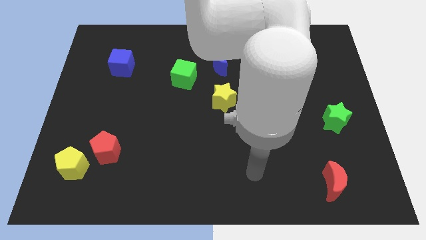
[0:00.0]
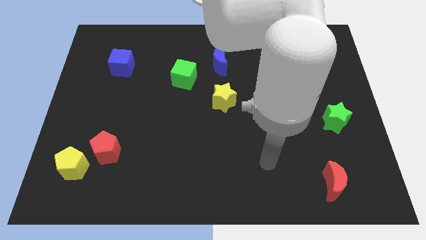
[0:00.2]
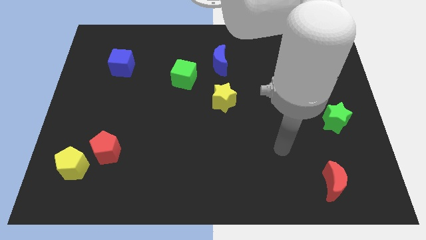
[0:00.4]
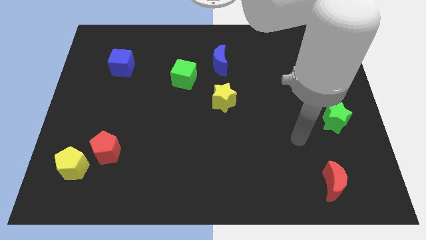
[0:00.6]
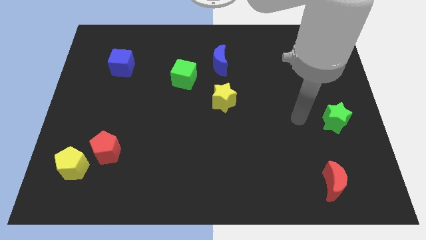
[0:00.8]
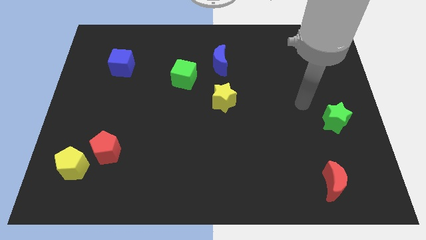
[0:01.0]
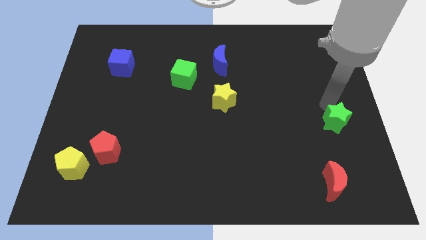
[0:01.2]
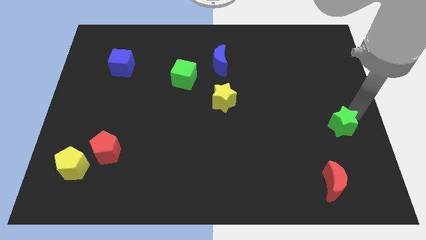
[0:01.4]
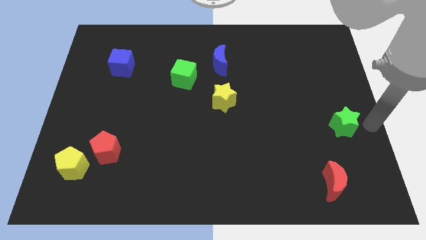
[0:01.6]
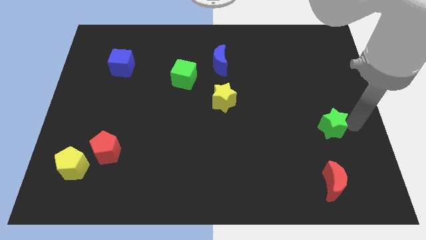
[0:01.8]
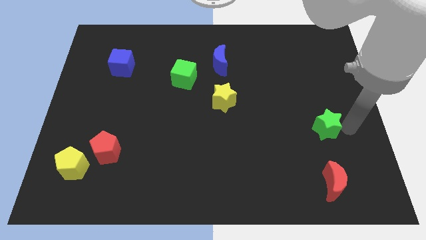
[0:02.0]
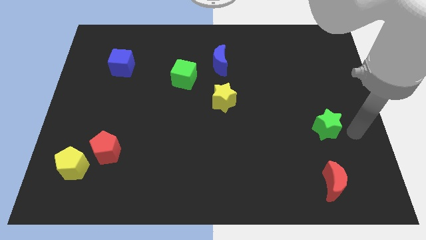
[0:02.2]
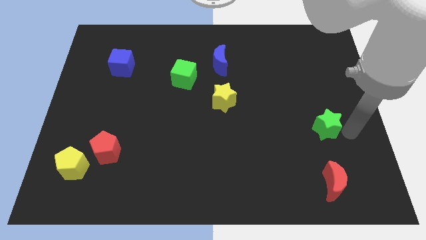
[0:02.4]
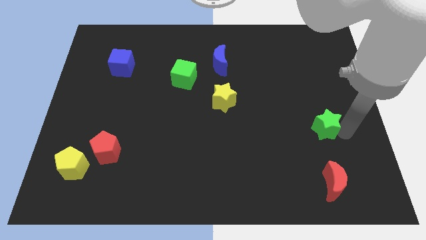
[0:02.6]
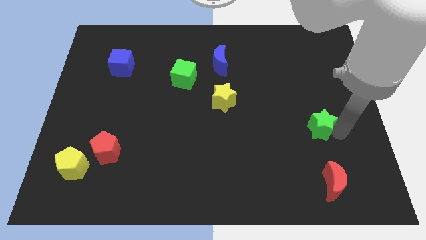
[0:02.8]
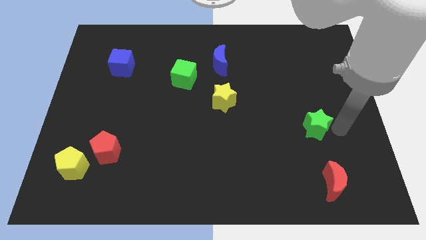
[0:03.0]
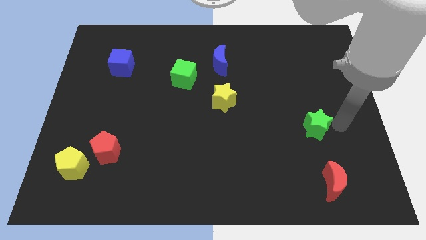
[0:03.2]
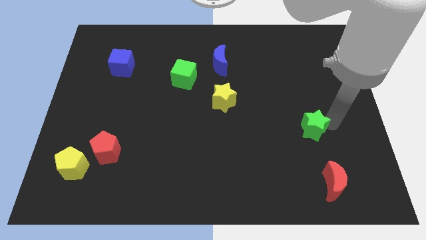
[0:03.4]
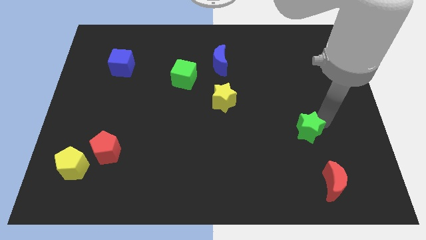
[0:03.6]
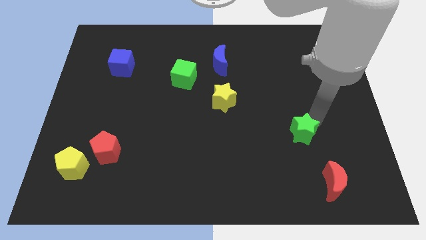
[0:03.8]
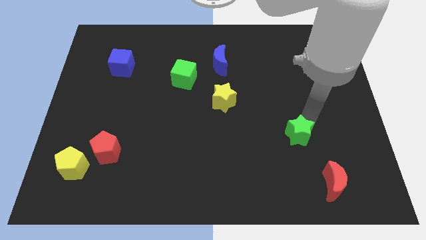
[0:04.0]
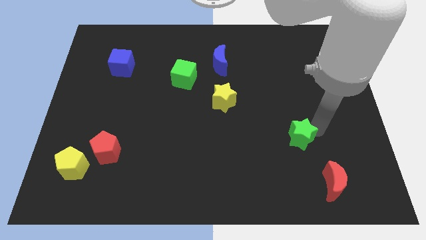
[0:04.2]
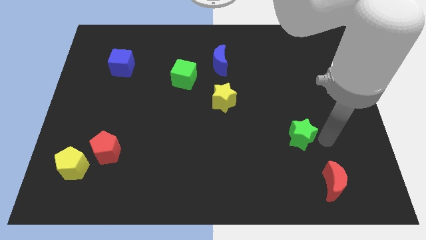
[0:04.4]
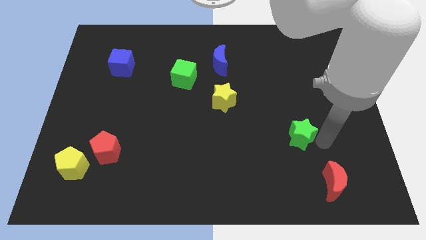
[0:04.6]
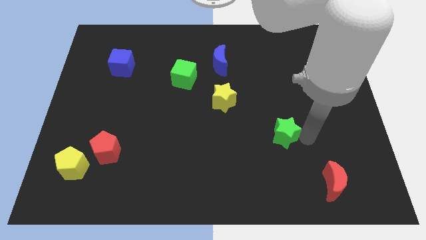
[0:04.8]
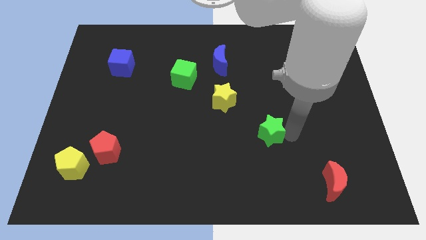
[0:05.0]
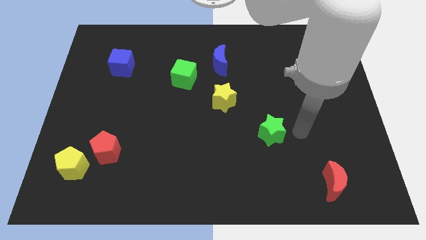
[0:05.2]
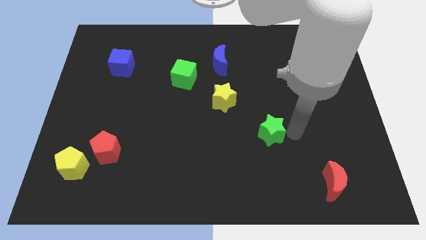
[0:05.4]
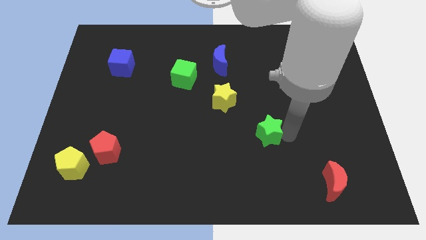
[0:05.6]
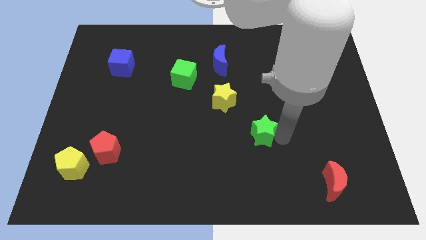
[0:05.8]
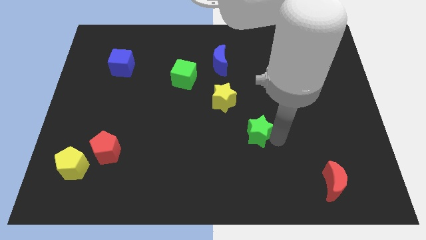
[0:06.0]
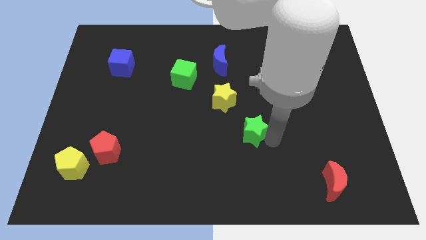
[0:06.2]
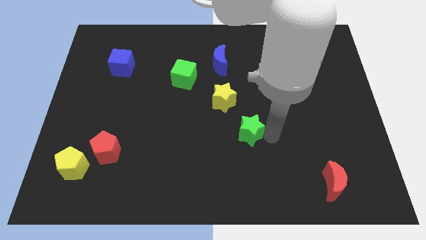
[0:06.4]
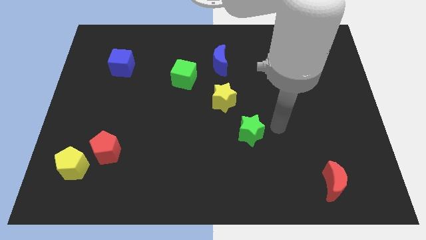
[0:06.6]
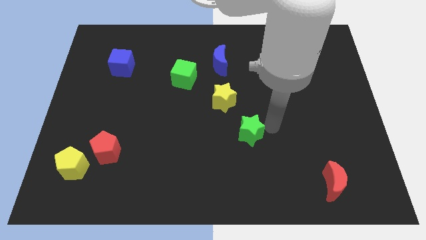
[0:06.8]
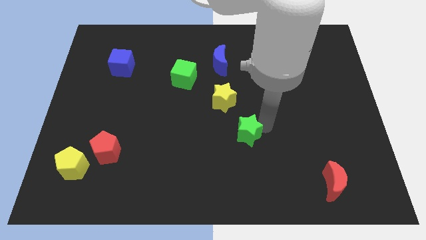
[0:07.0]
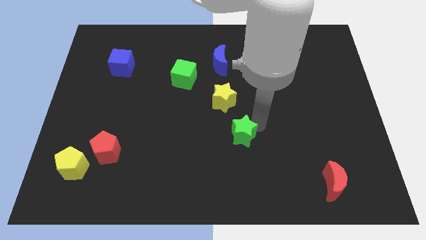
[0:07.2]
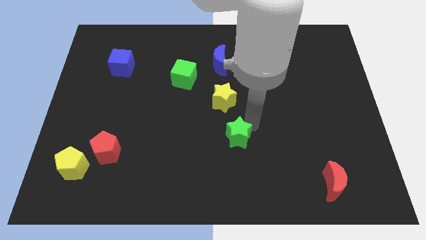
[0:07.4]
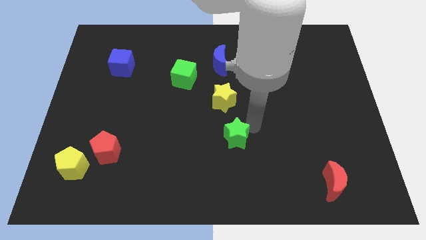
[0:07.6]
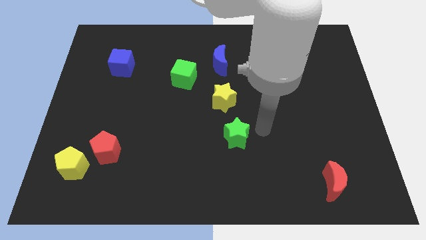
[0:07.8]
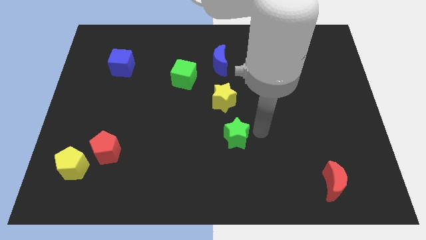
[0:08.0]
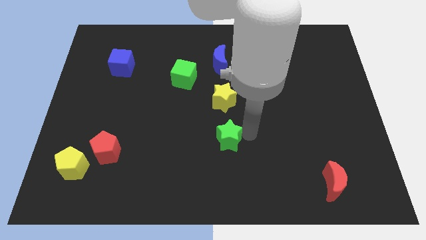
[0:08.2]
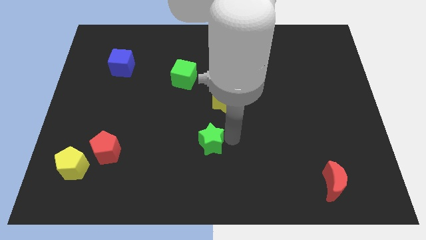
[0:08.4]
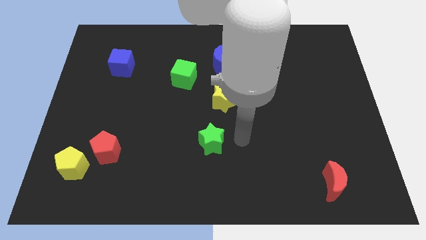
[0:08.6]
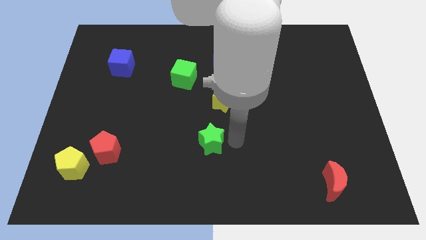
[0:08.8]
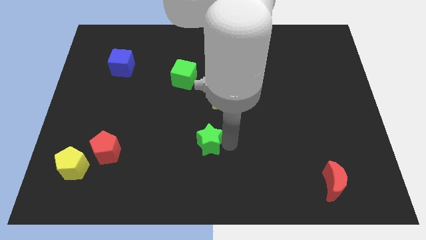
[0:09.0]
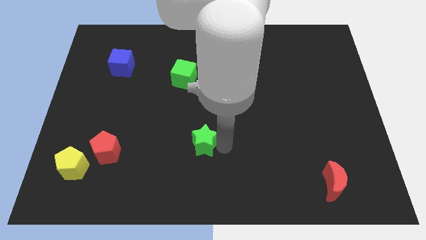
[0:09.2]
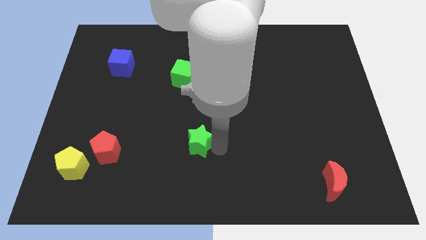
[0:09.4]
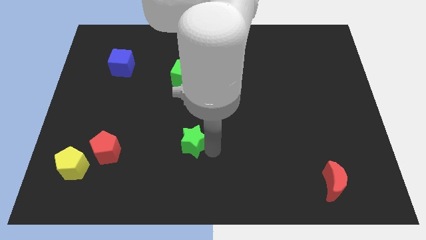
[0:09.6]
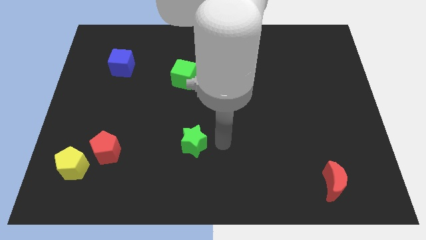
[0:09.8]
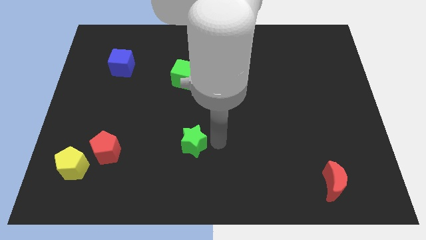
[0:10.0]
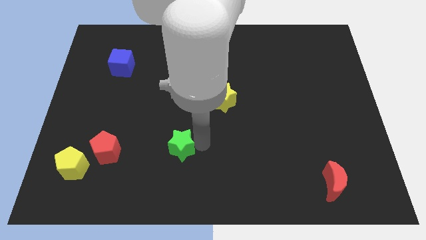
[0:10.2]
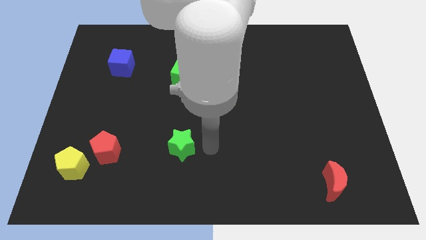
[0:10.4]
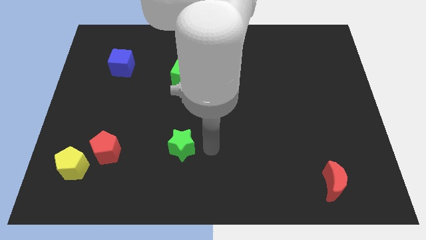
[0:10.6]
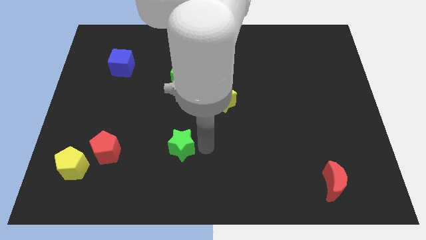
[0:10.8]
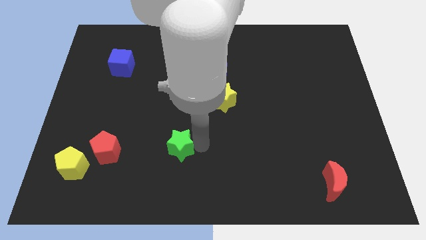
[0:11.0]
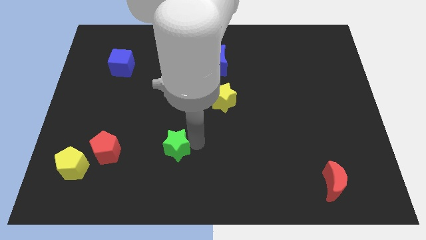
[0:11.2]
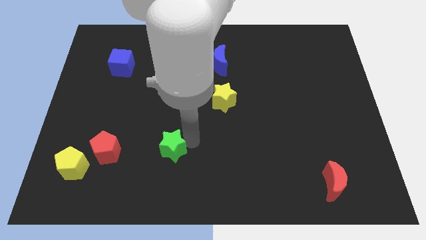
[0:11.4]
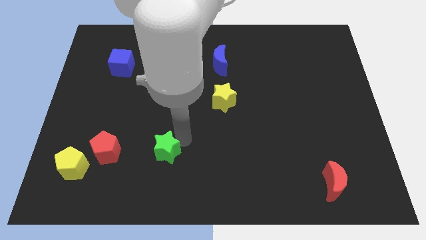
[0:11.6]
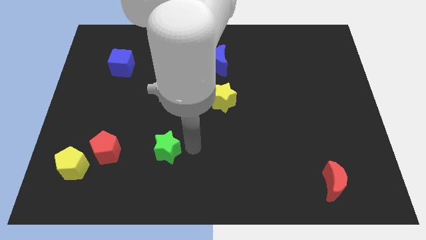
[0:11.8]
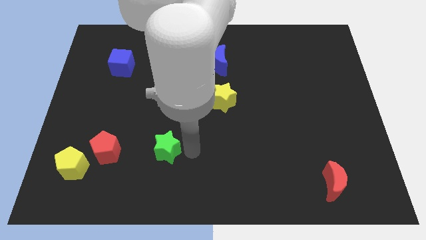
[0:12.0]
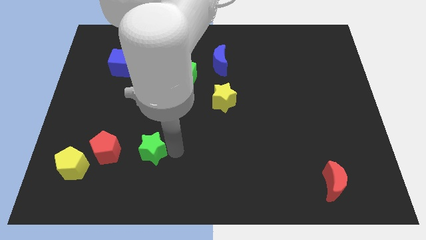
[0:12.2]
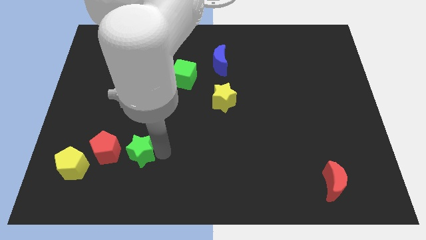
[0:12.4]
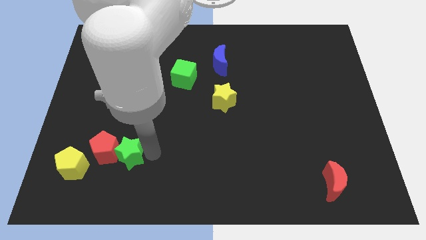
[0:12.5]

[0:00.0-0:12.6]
slide the green star towards the red pentagon

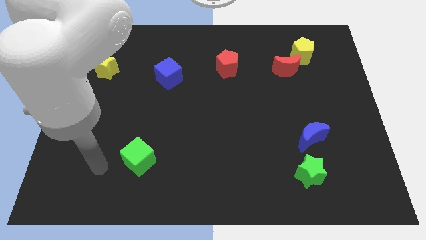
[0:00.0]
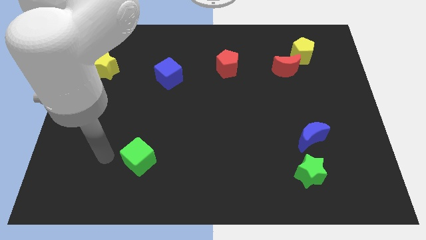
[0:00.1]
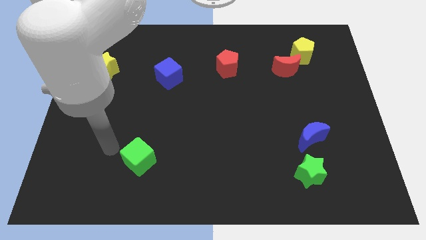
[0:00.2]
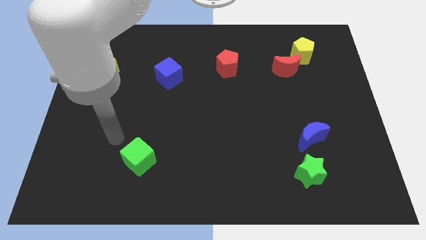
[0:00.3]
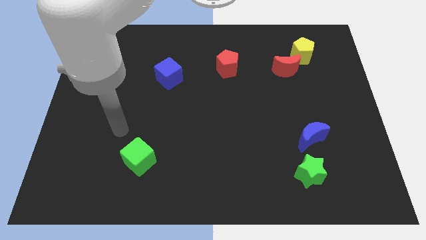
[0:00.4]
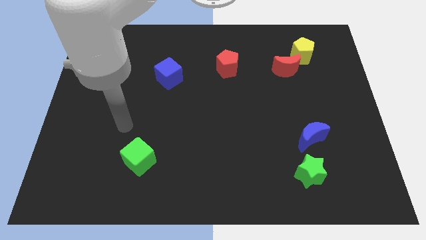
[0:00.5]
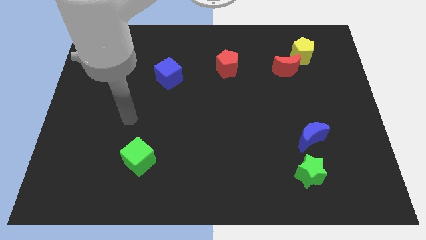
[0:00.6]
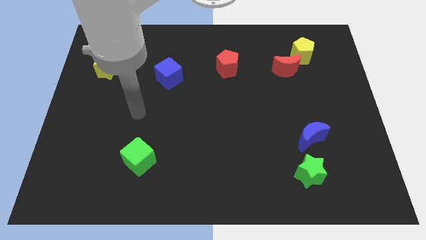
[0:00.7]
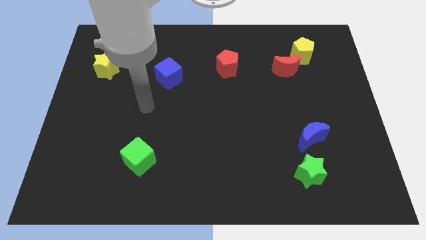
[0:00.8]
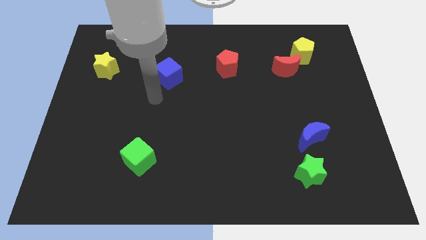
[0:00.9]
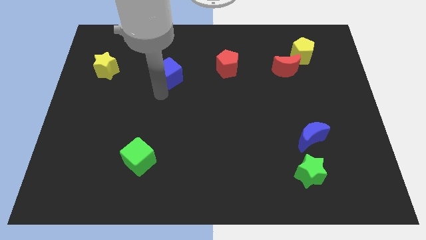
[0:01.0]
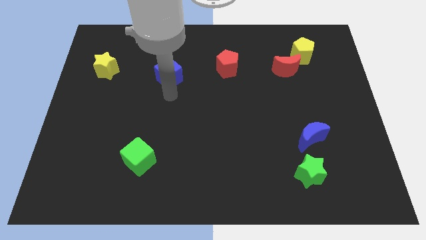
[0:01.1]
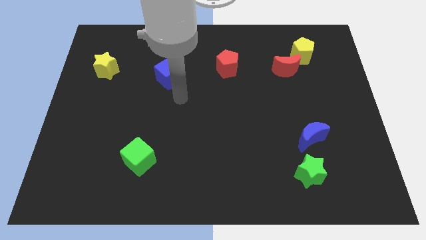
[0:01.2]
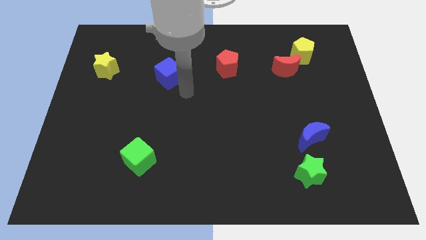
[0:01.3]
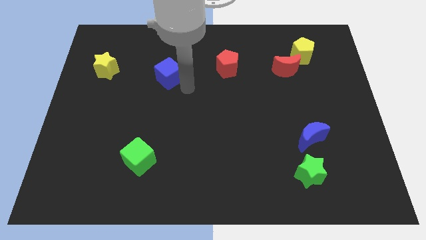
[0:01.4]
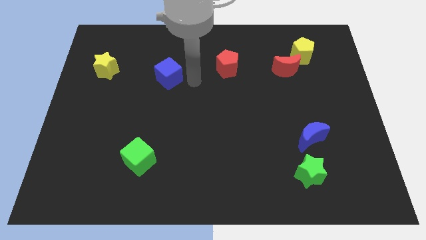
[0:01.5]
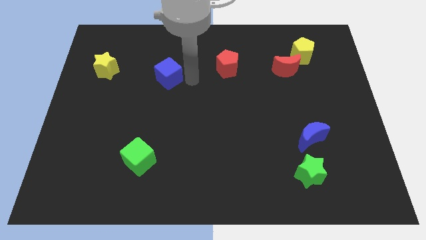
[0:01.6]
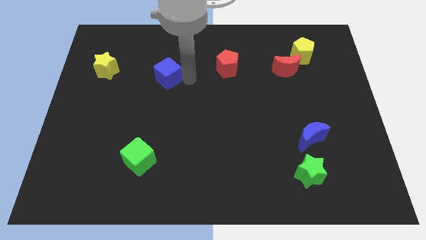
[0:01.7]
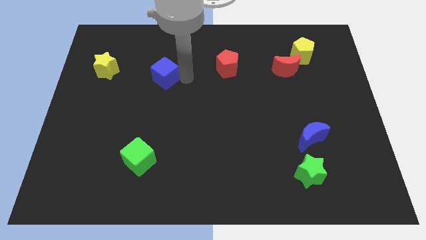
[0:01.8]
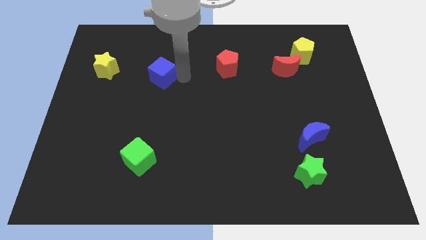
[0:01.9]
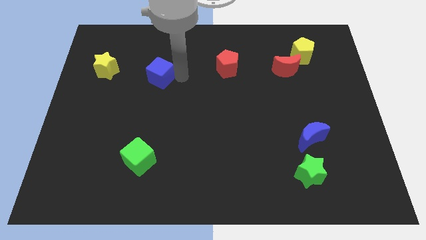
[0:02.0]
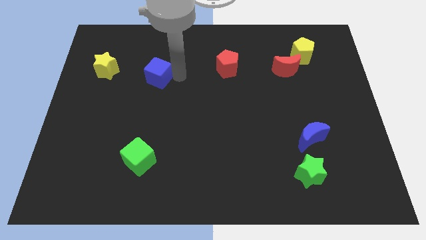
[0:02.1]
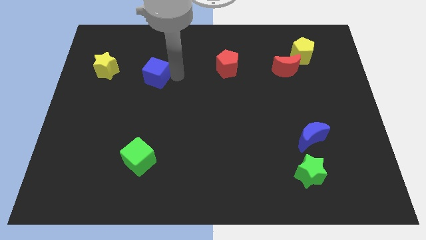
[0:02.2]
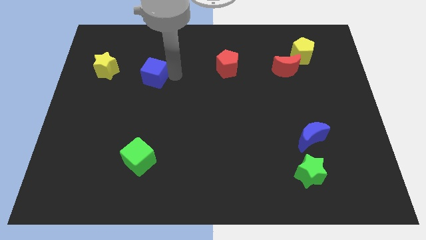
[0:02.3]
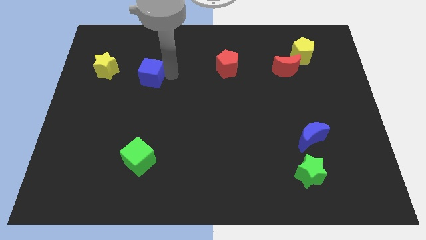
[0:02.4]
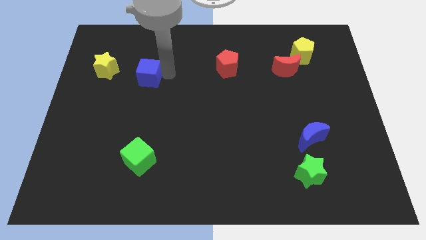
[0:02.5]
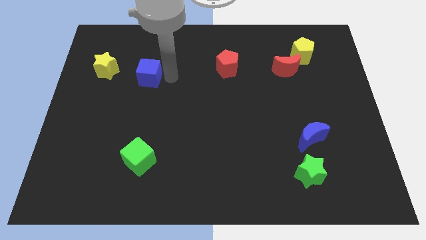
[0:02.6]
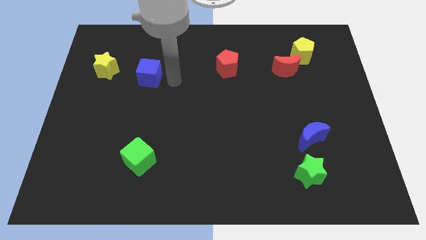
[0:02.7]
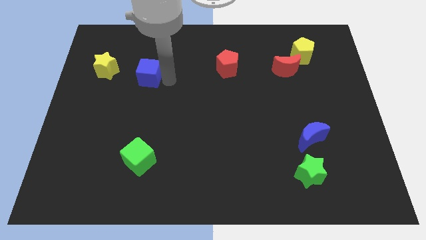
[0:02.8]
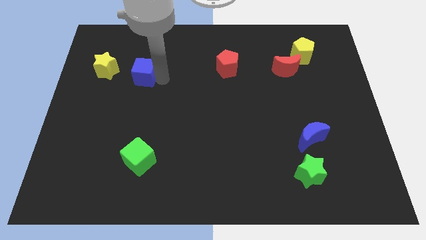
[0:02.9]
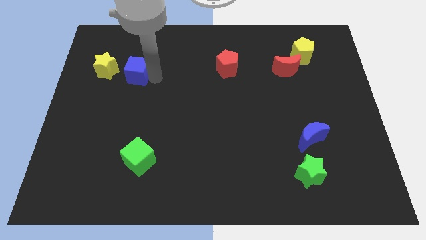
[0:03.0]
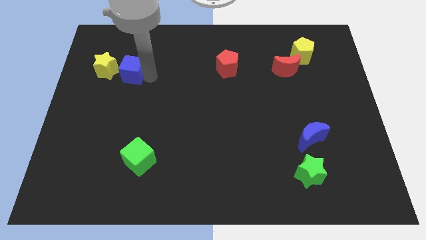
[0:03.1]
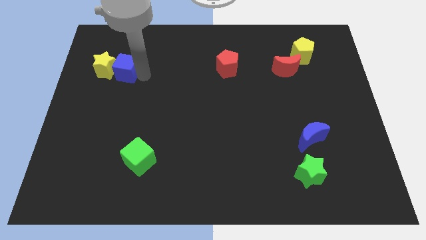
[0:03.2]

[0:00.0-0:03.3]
slide the blue cube towards the yellow star
